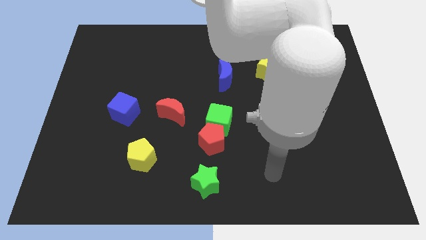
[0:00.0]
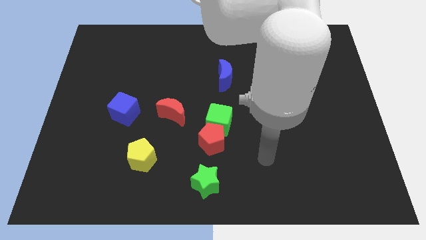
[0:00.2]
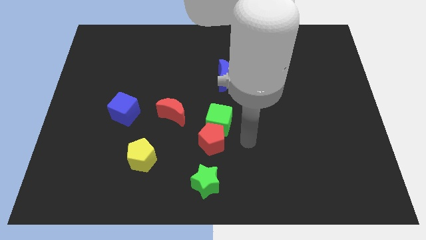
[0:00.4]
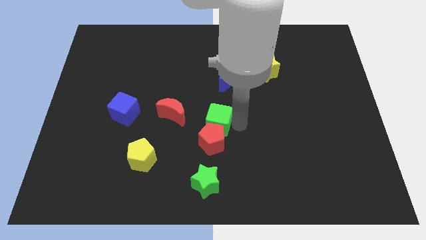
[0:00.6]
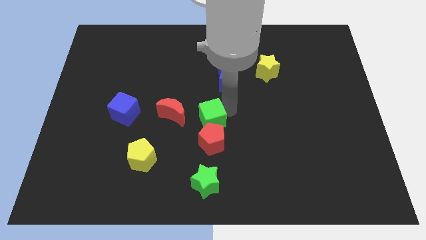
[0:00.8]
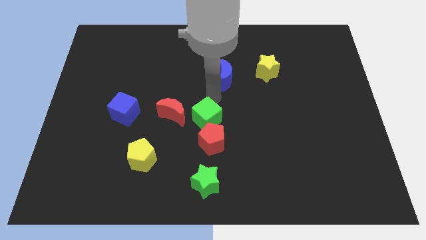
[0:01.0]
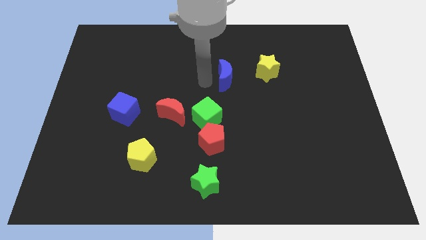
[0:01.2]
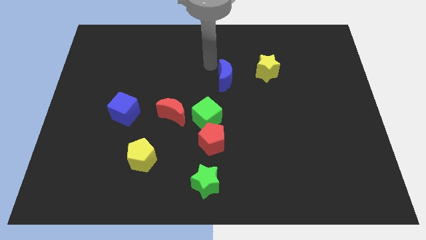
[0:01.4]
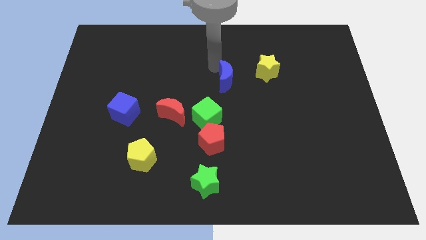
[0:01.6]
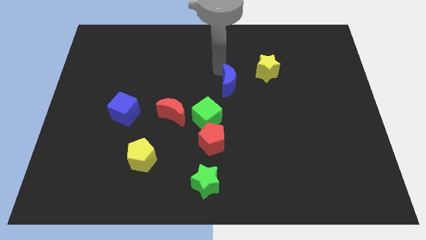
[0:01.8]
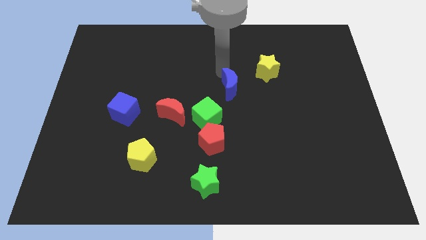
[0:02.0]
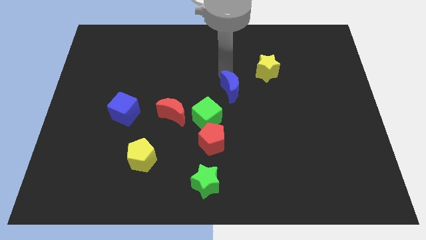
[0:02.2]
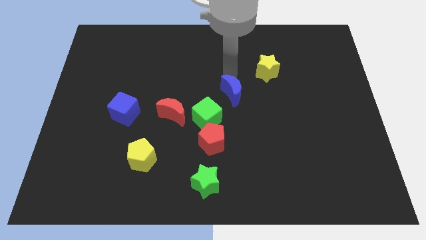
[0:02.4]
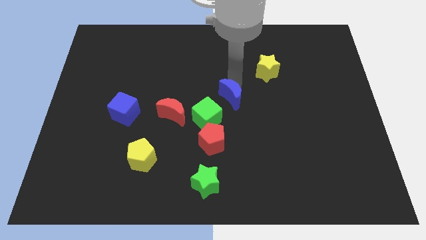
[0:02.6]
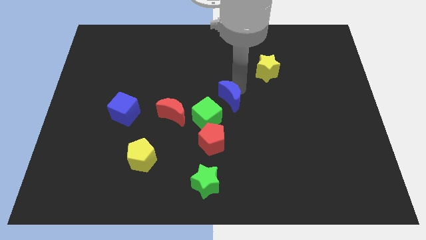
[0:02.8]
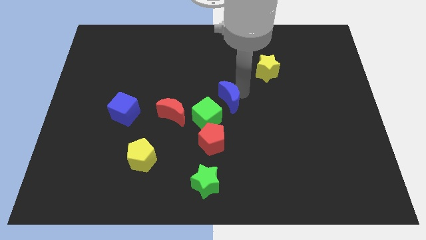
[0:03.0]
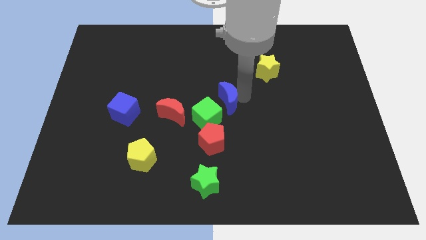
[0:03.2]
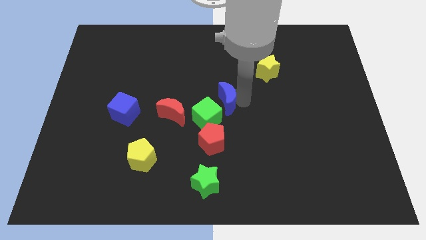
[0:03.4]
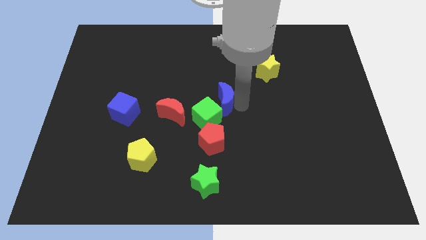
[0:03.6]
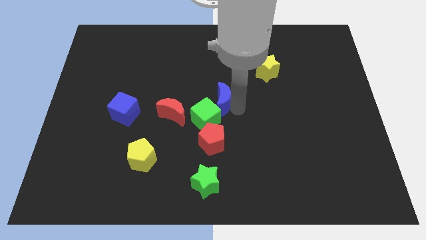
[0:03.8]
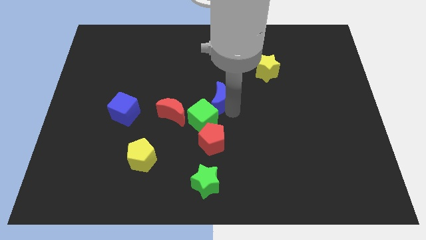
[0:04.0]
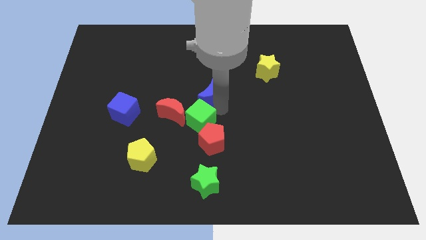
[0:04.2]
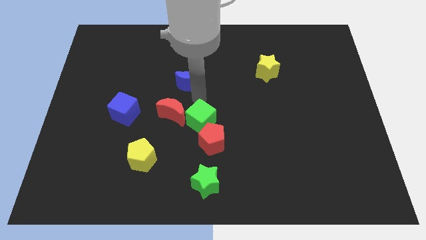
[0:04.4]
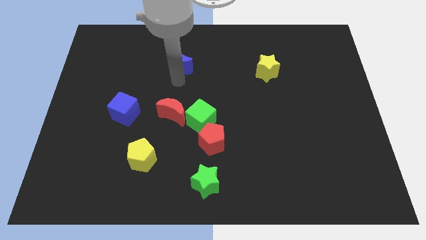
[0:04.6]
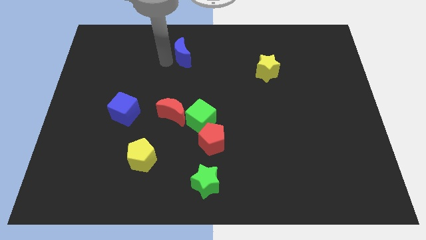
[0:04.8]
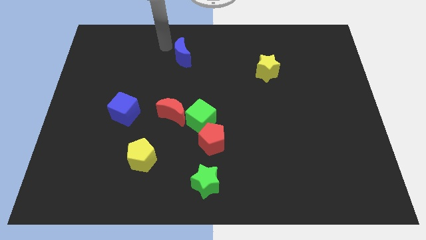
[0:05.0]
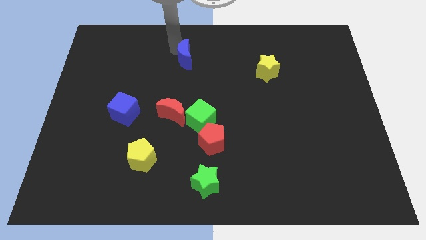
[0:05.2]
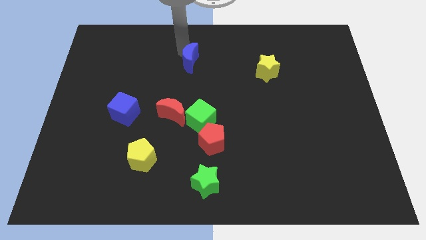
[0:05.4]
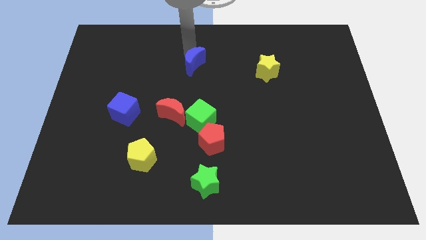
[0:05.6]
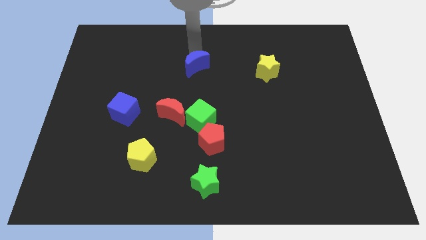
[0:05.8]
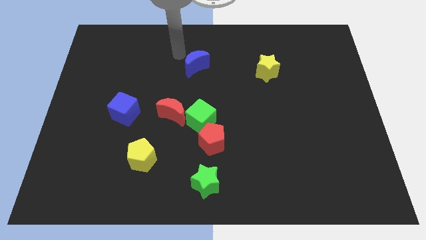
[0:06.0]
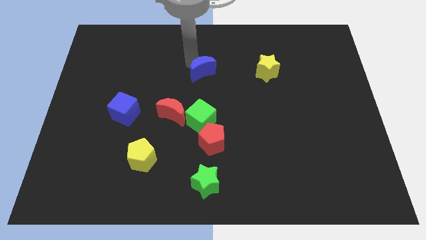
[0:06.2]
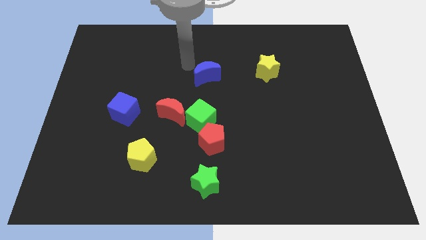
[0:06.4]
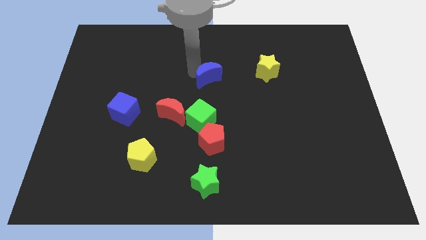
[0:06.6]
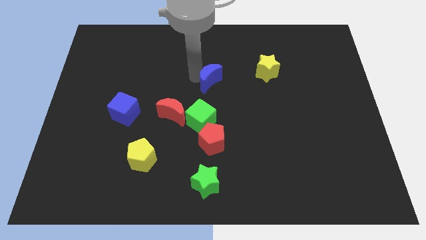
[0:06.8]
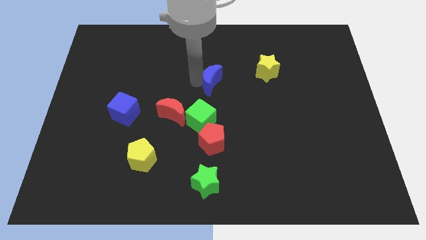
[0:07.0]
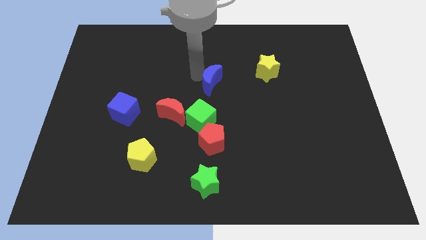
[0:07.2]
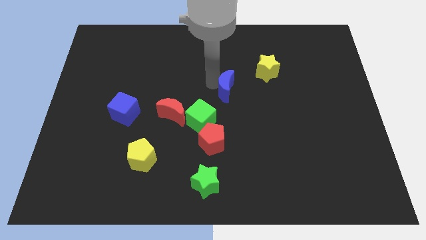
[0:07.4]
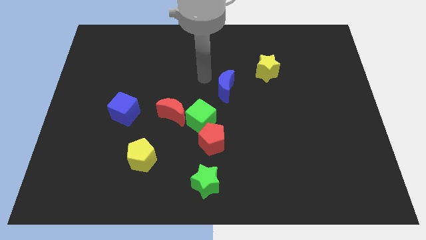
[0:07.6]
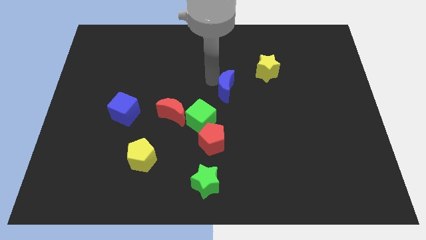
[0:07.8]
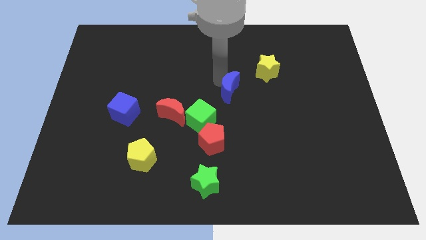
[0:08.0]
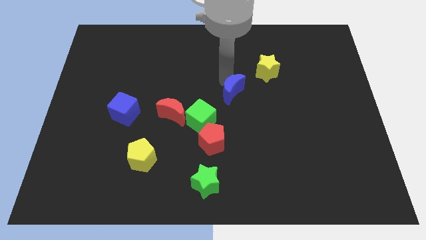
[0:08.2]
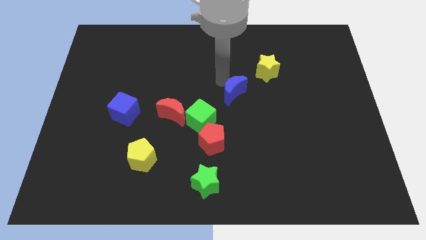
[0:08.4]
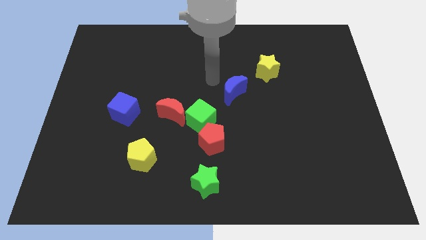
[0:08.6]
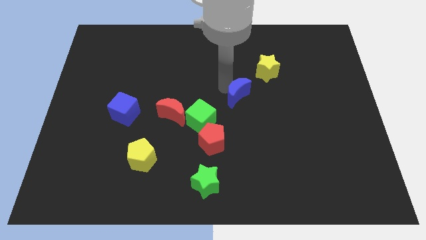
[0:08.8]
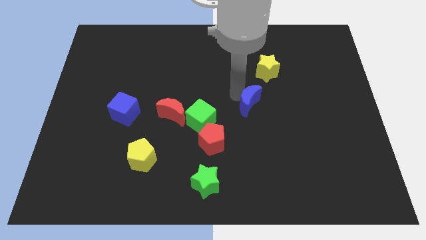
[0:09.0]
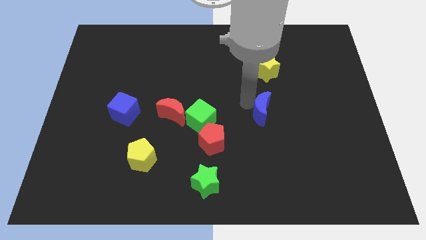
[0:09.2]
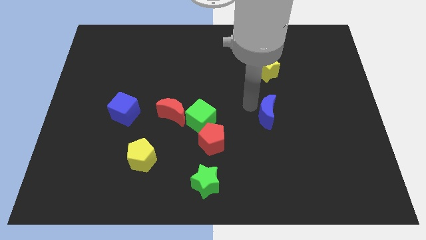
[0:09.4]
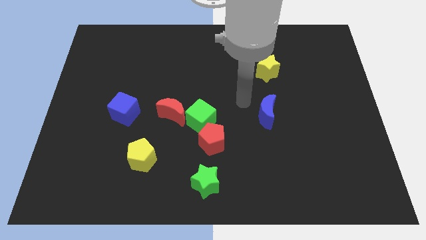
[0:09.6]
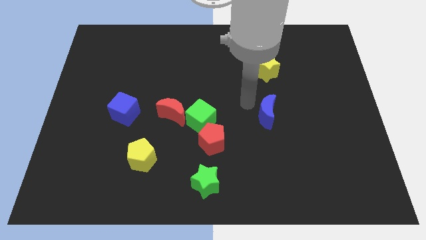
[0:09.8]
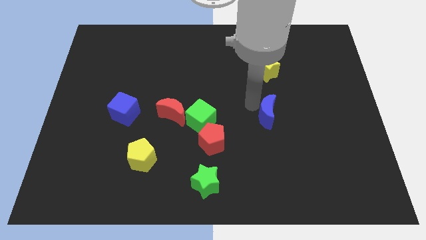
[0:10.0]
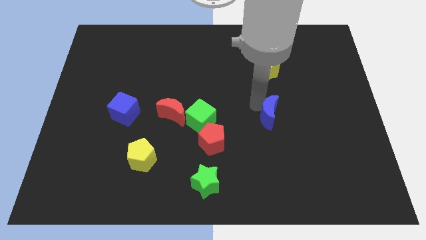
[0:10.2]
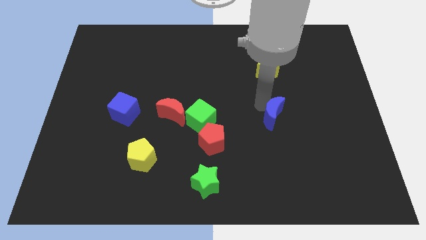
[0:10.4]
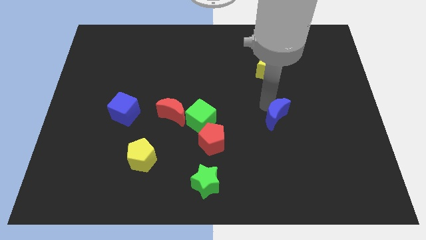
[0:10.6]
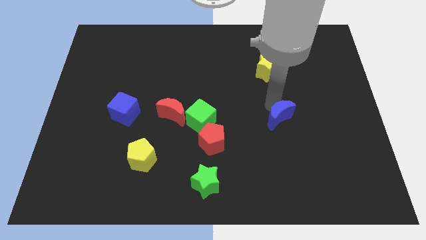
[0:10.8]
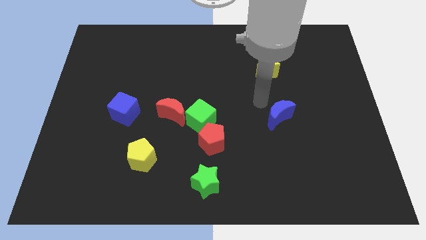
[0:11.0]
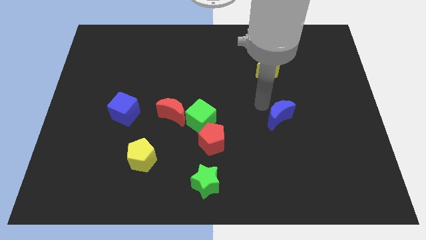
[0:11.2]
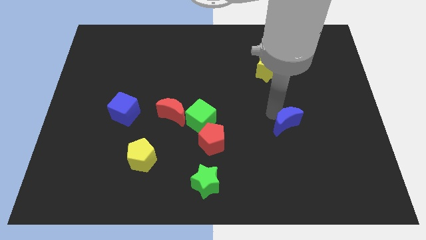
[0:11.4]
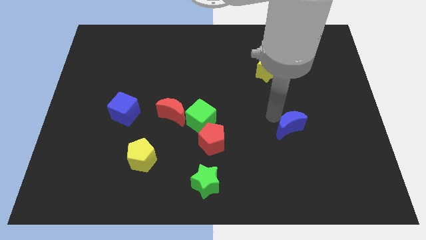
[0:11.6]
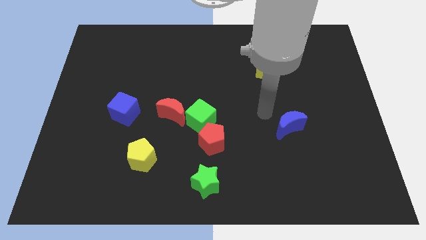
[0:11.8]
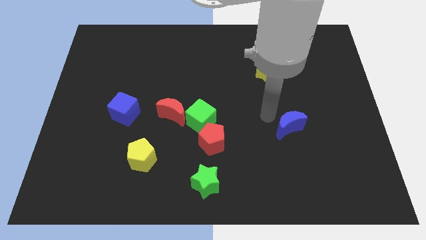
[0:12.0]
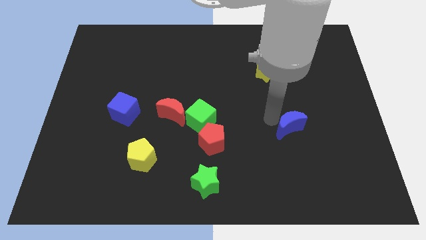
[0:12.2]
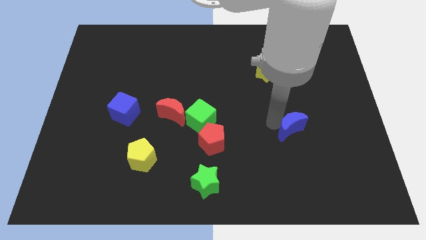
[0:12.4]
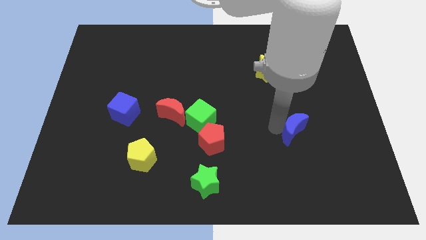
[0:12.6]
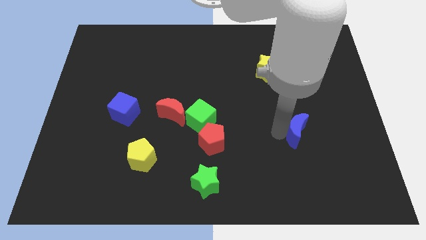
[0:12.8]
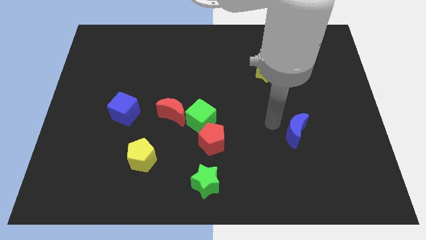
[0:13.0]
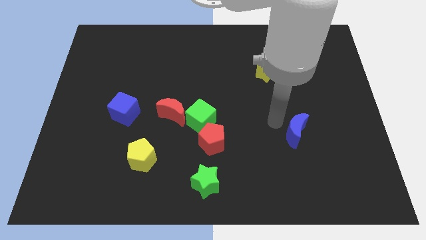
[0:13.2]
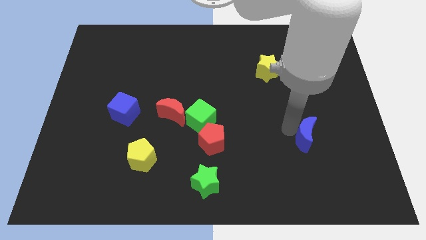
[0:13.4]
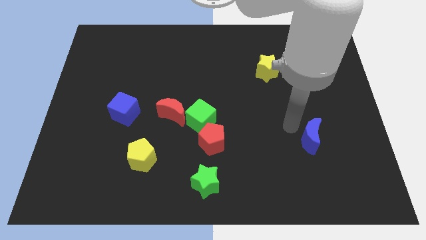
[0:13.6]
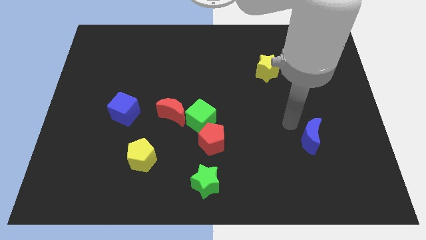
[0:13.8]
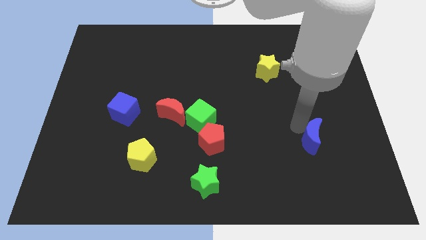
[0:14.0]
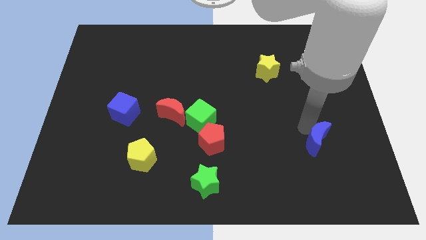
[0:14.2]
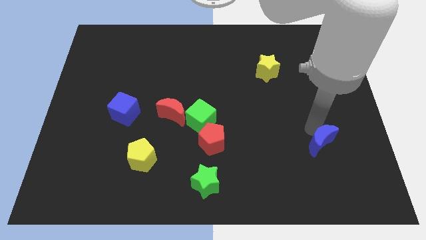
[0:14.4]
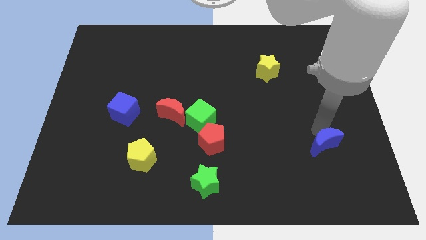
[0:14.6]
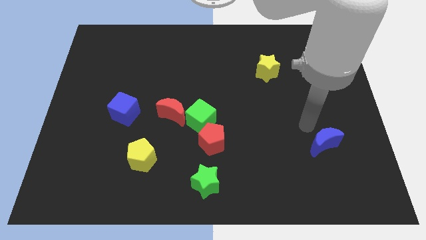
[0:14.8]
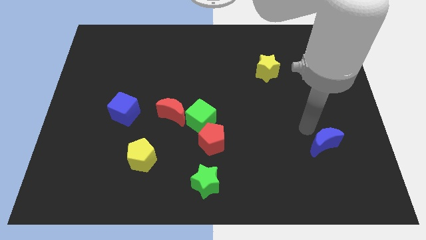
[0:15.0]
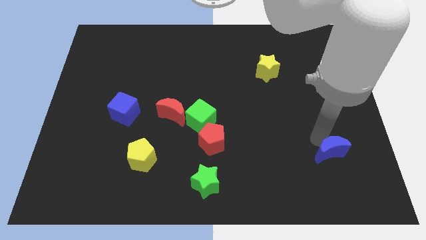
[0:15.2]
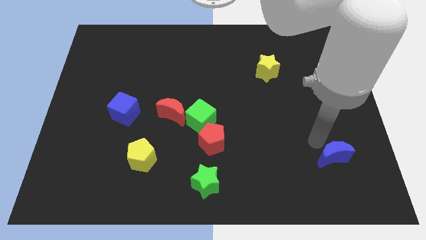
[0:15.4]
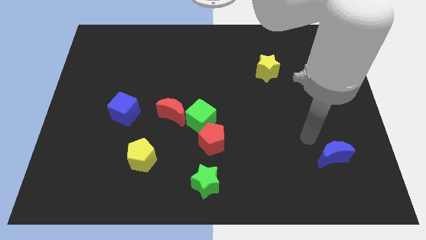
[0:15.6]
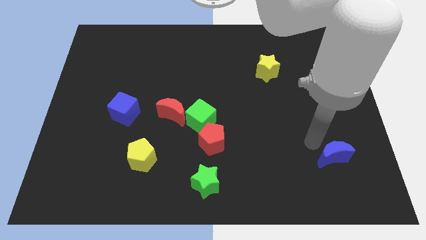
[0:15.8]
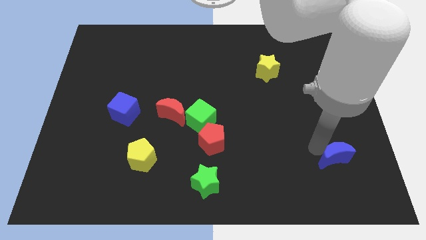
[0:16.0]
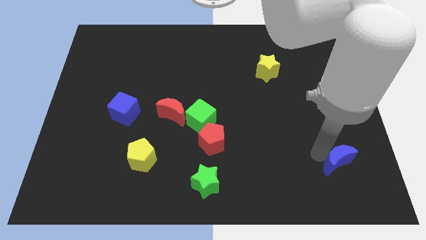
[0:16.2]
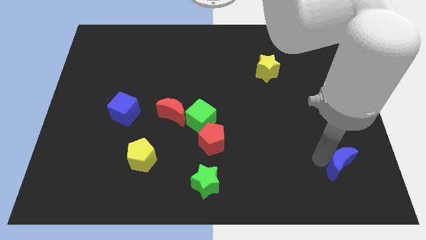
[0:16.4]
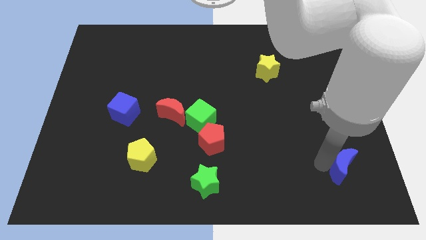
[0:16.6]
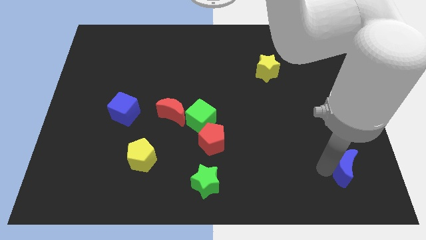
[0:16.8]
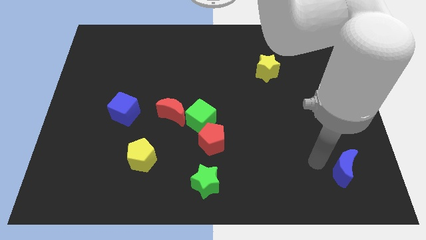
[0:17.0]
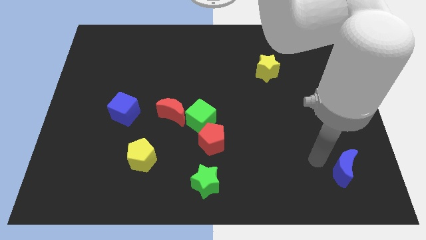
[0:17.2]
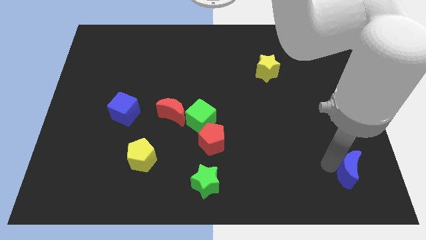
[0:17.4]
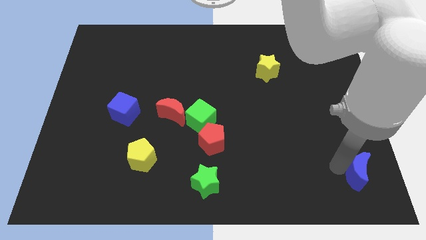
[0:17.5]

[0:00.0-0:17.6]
put the blue moon to the bottom right of the board
